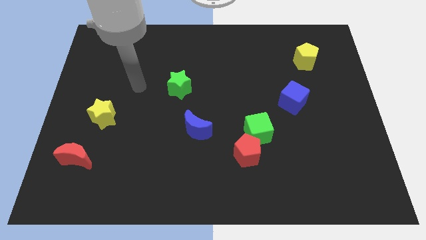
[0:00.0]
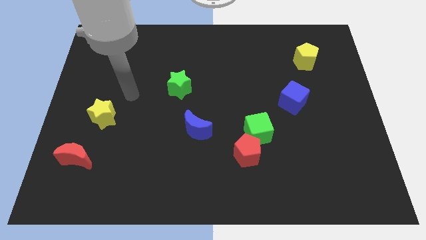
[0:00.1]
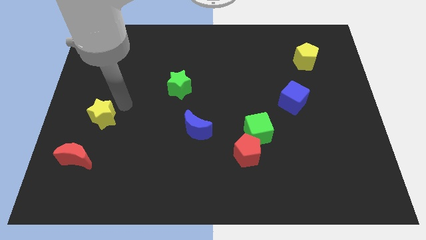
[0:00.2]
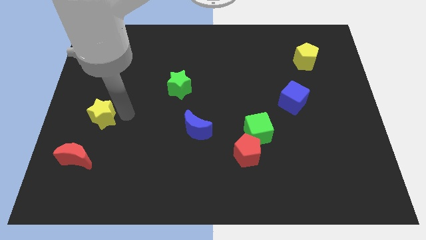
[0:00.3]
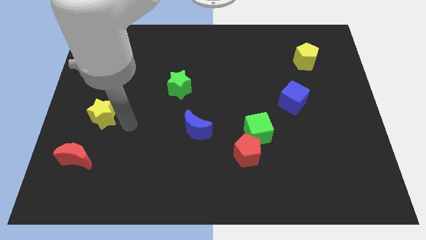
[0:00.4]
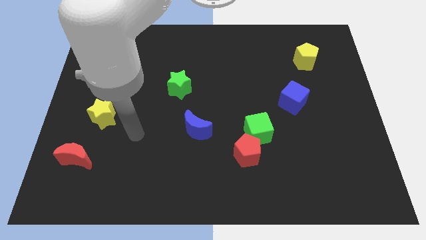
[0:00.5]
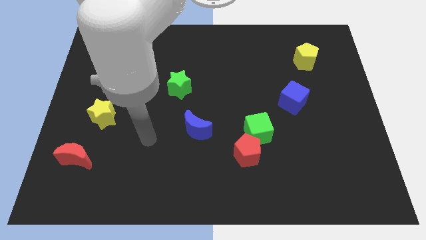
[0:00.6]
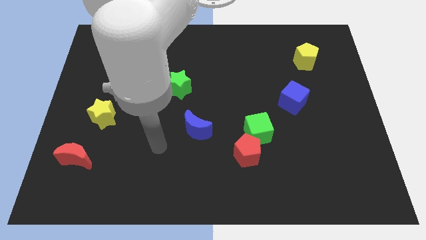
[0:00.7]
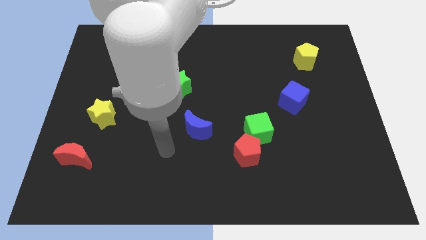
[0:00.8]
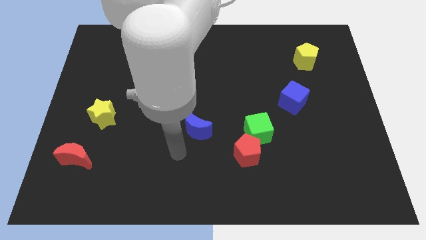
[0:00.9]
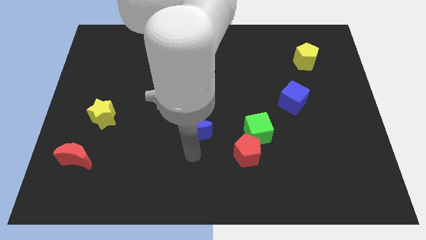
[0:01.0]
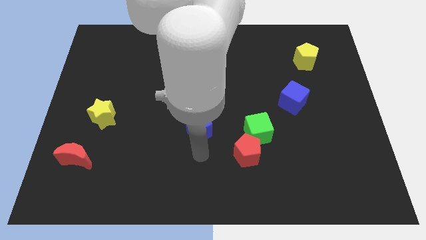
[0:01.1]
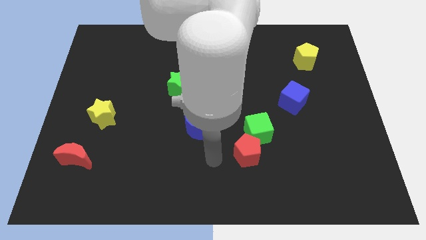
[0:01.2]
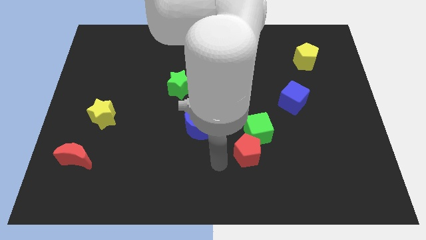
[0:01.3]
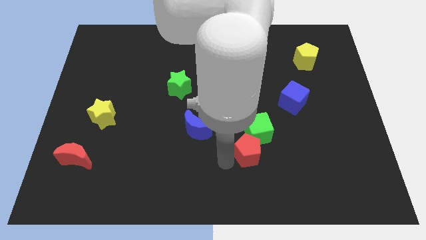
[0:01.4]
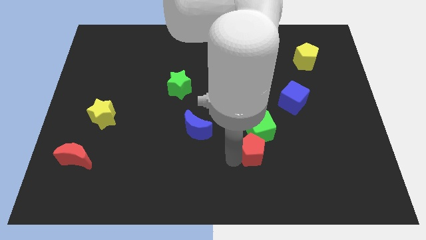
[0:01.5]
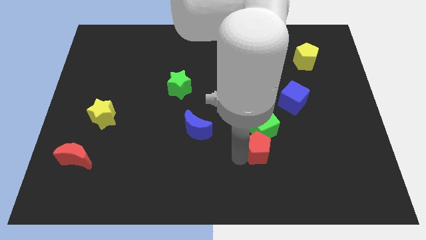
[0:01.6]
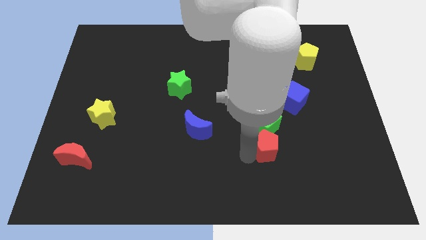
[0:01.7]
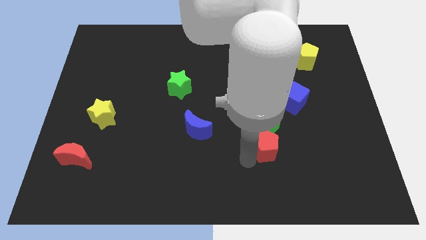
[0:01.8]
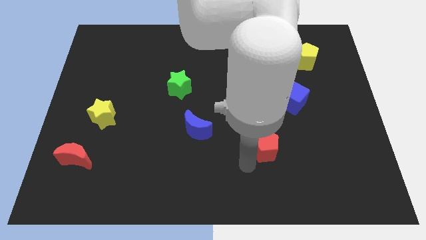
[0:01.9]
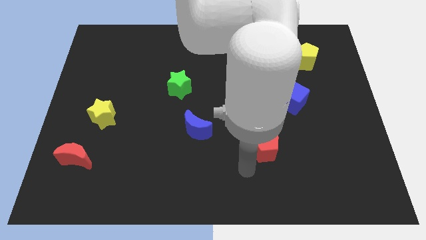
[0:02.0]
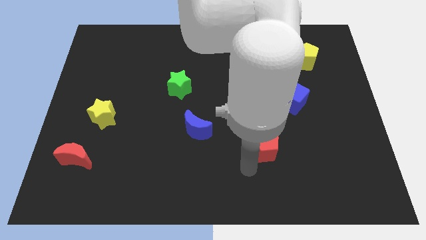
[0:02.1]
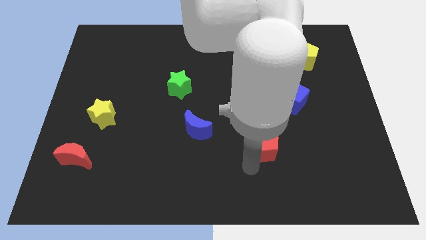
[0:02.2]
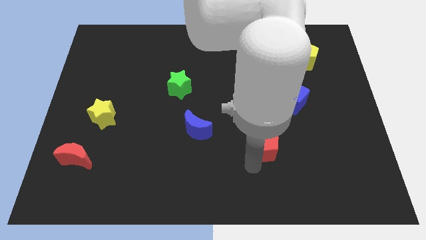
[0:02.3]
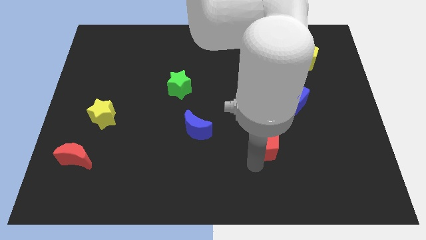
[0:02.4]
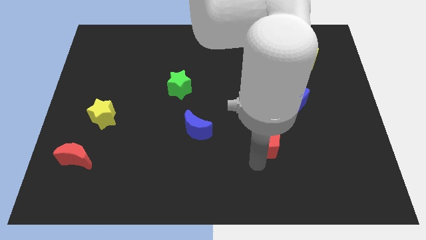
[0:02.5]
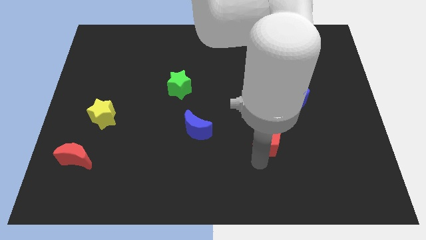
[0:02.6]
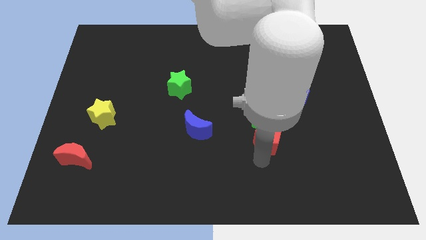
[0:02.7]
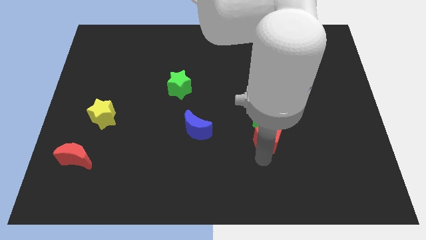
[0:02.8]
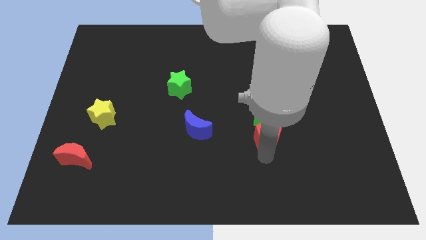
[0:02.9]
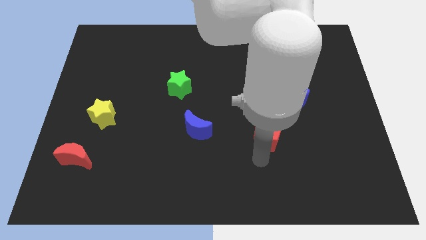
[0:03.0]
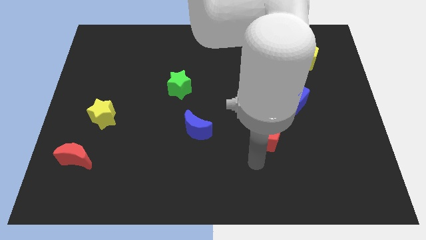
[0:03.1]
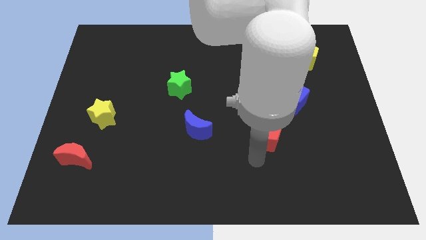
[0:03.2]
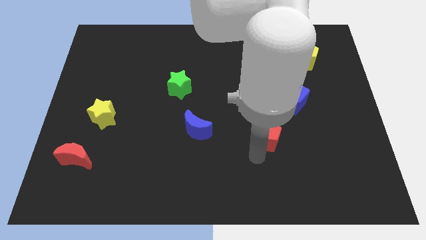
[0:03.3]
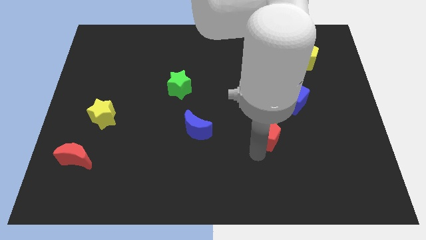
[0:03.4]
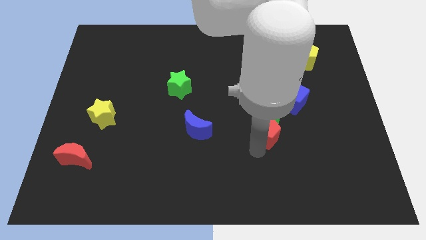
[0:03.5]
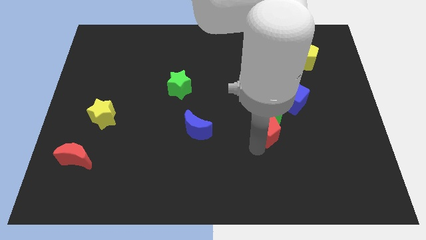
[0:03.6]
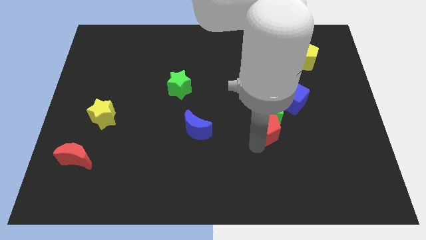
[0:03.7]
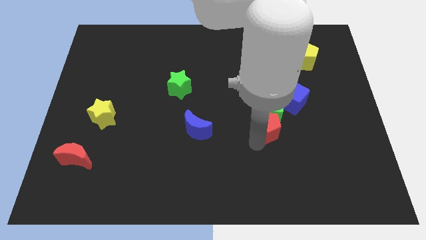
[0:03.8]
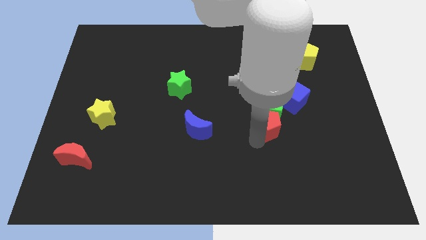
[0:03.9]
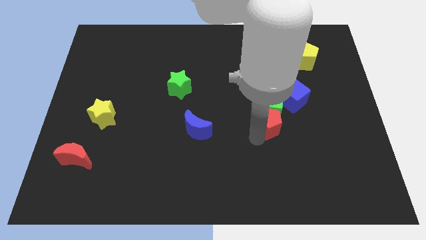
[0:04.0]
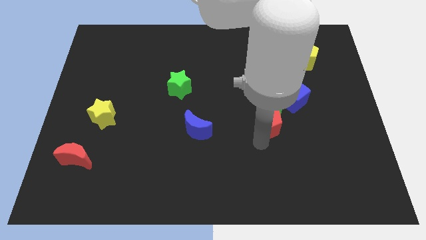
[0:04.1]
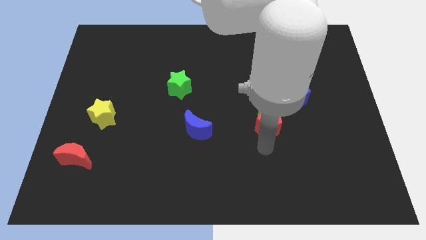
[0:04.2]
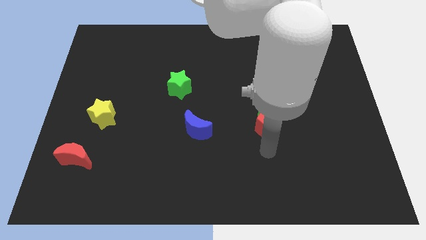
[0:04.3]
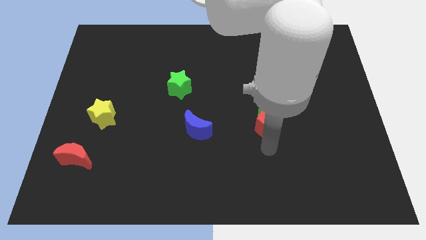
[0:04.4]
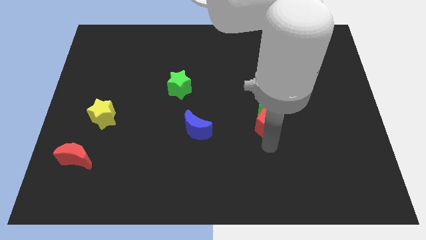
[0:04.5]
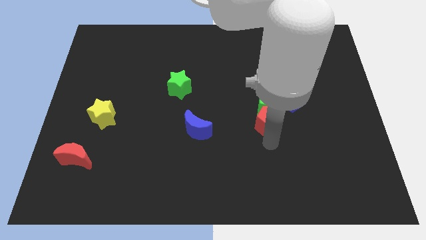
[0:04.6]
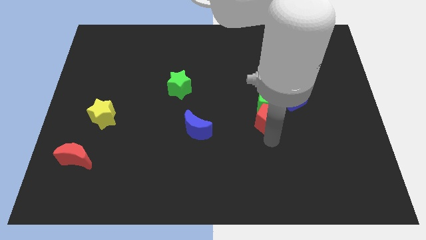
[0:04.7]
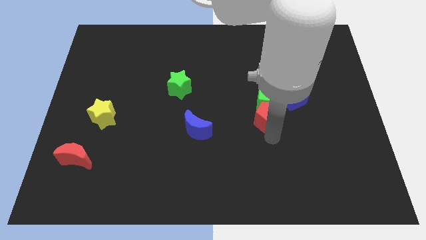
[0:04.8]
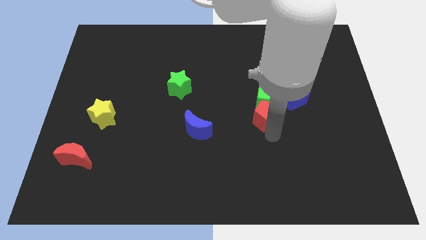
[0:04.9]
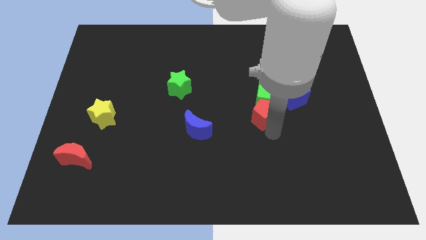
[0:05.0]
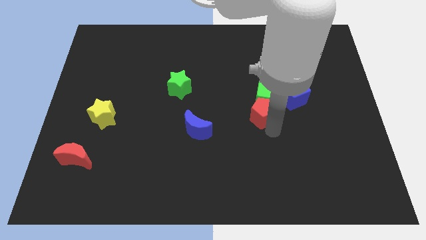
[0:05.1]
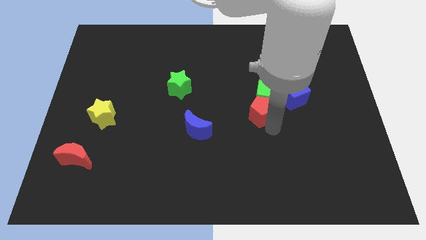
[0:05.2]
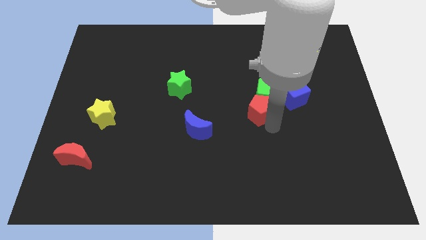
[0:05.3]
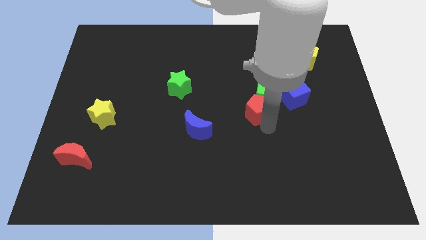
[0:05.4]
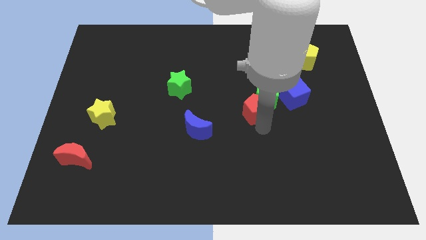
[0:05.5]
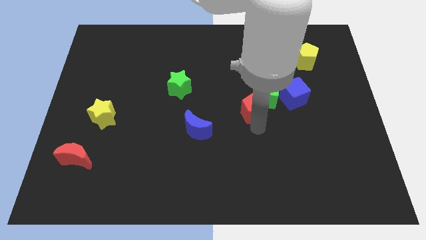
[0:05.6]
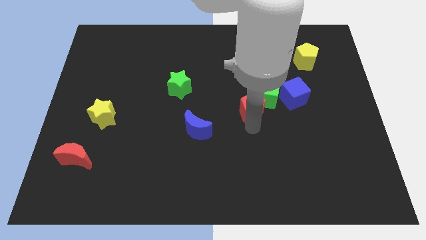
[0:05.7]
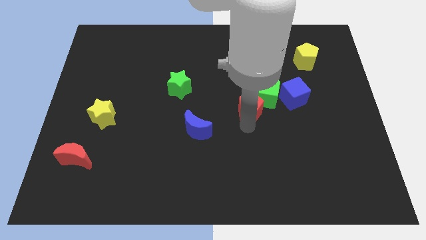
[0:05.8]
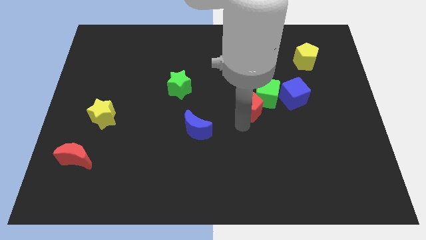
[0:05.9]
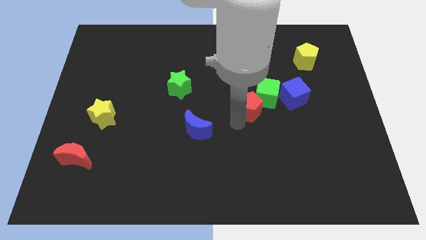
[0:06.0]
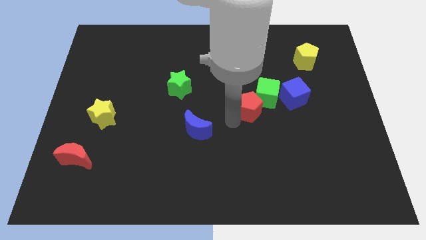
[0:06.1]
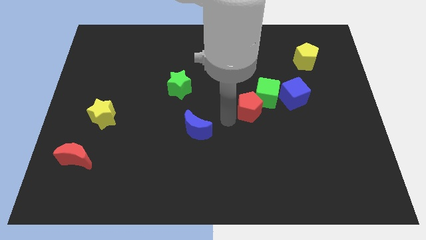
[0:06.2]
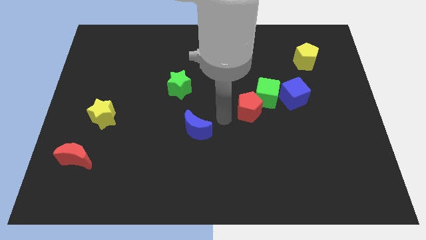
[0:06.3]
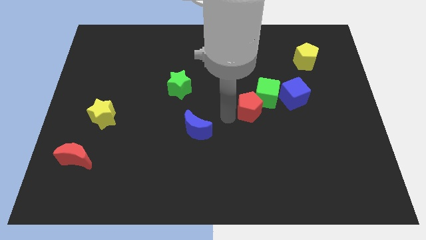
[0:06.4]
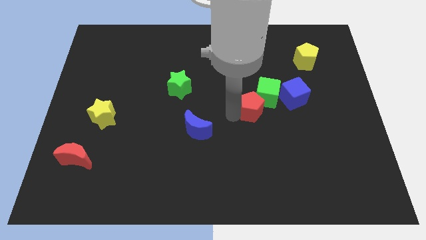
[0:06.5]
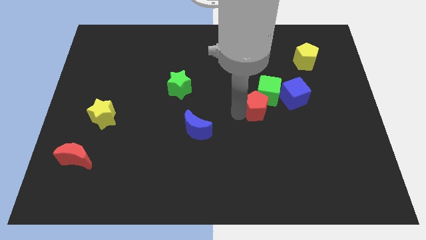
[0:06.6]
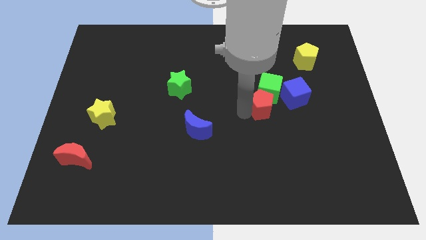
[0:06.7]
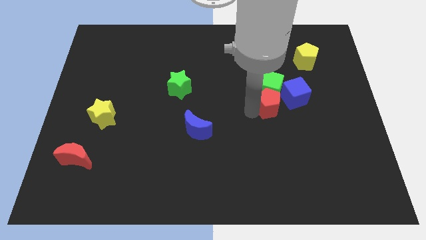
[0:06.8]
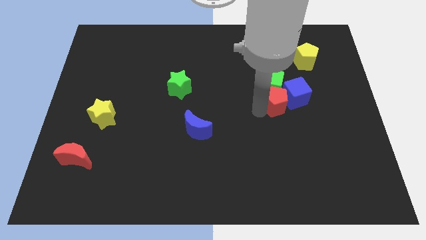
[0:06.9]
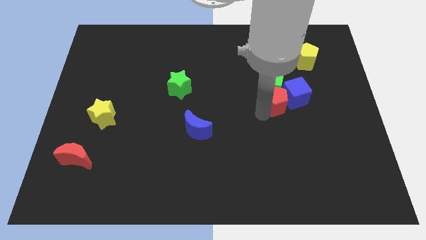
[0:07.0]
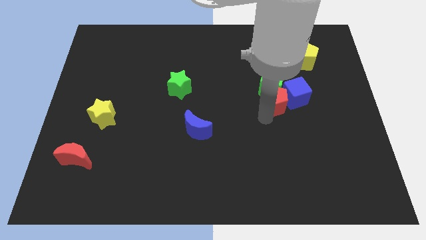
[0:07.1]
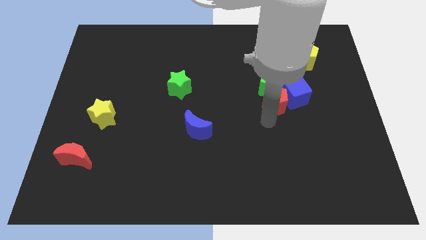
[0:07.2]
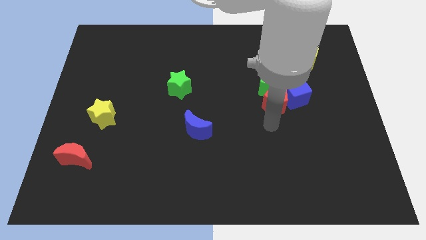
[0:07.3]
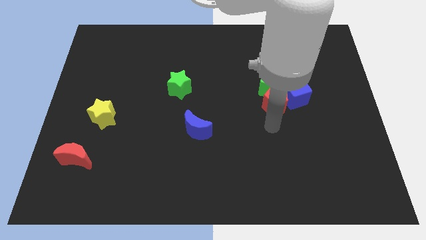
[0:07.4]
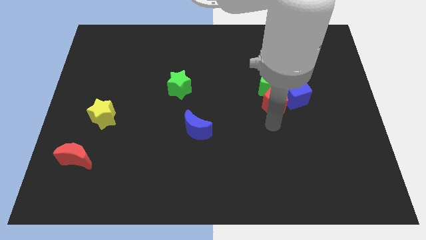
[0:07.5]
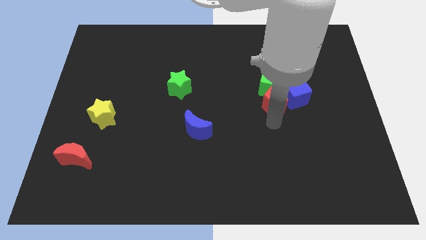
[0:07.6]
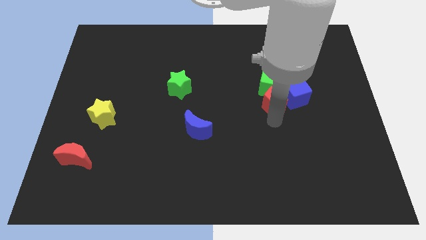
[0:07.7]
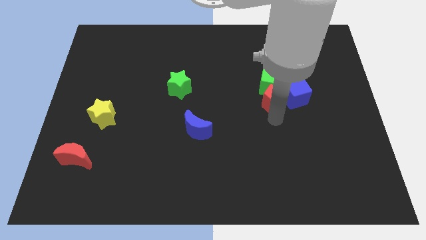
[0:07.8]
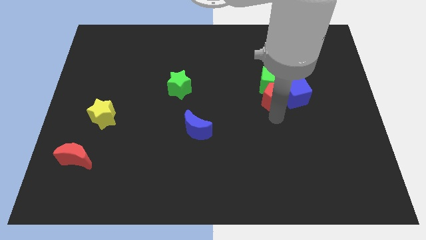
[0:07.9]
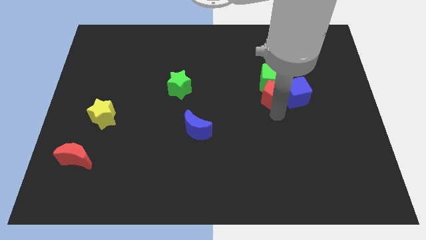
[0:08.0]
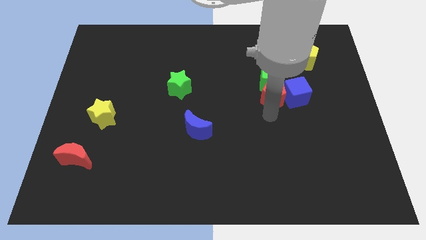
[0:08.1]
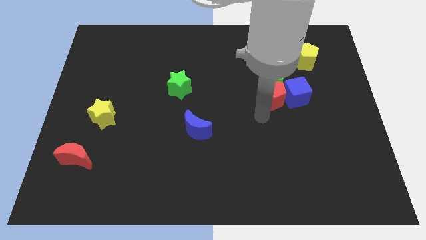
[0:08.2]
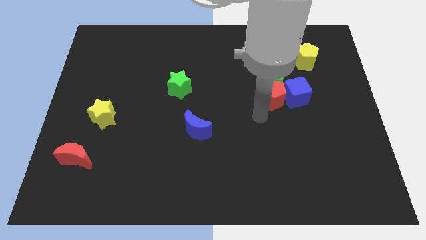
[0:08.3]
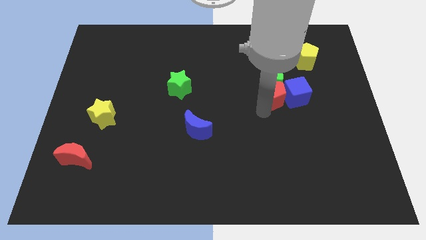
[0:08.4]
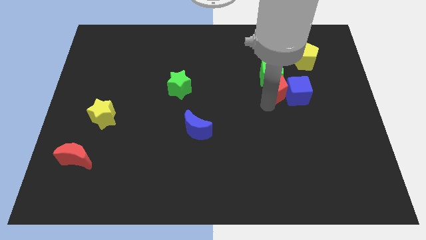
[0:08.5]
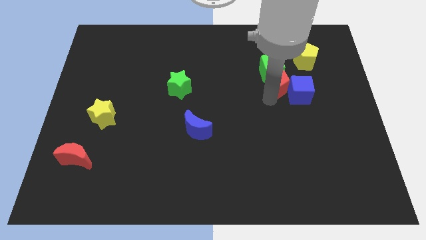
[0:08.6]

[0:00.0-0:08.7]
push the red pentagon to the bottom left of the yellow pentagon
